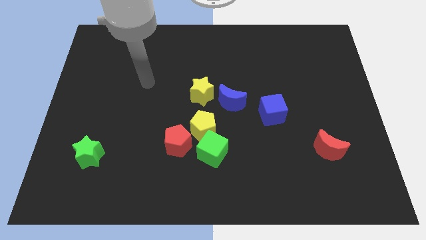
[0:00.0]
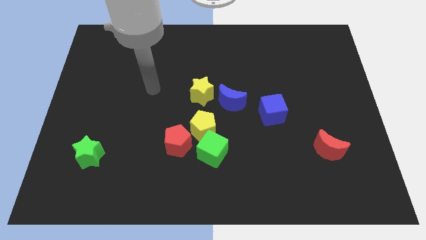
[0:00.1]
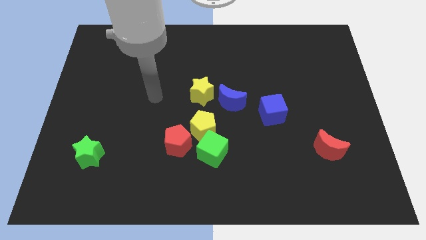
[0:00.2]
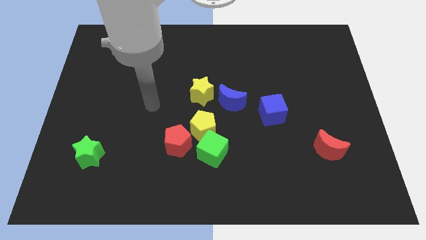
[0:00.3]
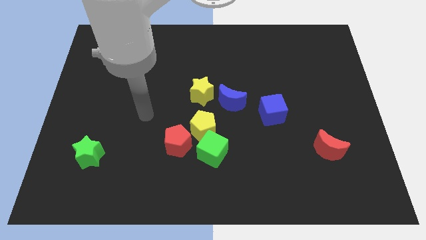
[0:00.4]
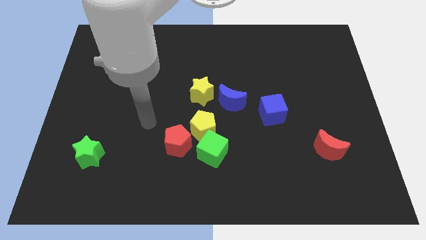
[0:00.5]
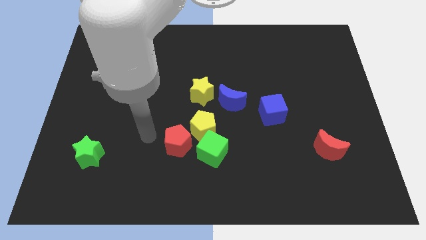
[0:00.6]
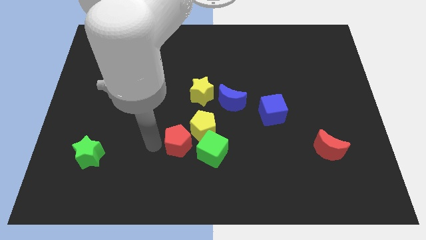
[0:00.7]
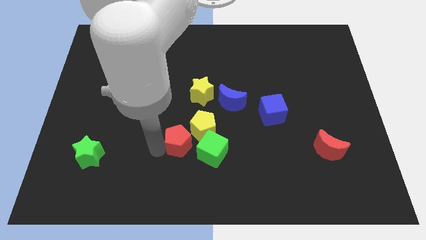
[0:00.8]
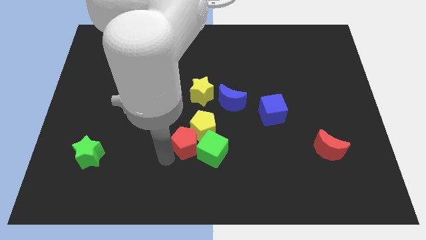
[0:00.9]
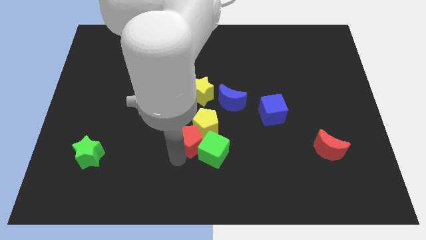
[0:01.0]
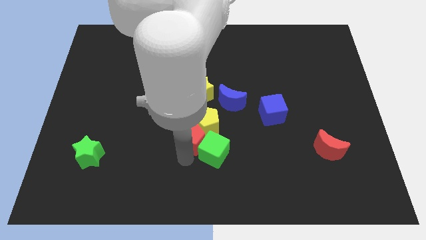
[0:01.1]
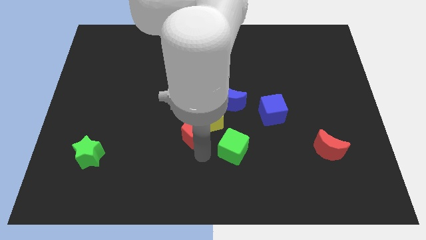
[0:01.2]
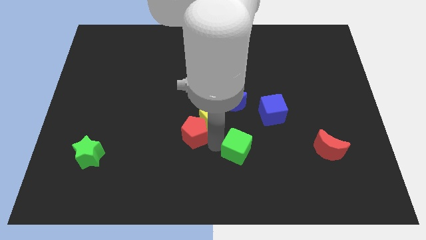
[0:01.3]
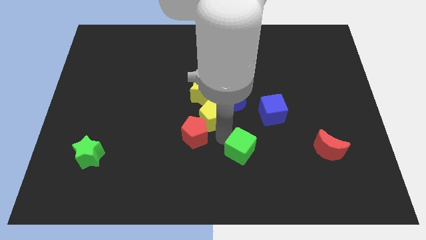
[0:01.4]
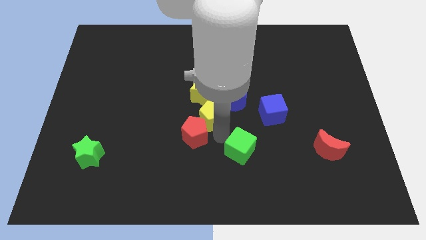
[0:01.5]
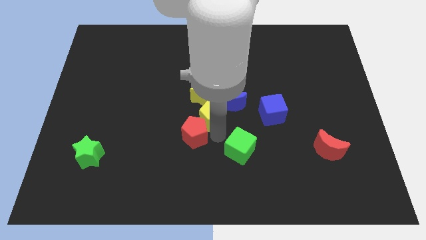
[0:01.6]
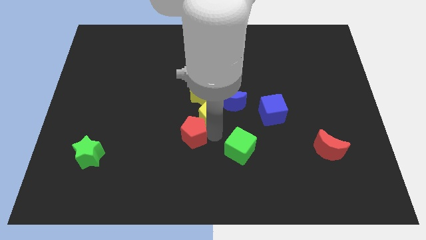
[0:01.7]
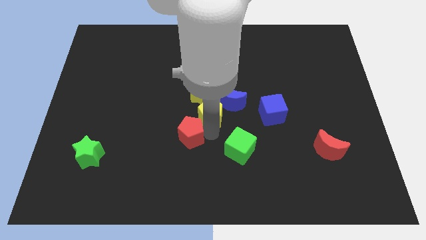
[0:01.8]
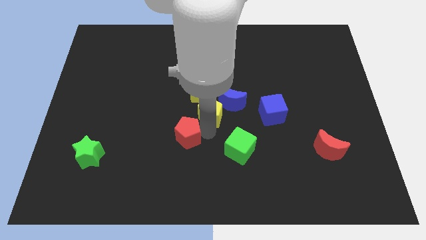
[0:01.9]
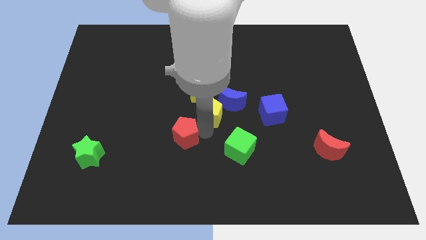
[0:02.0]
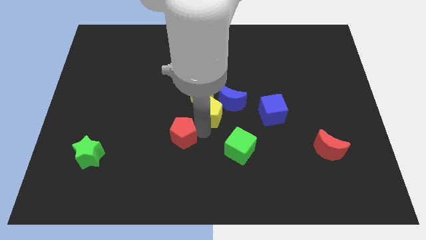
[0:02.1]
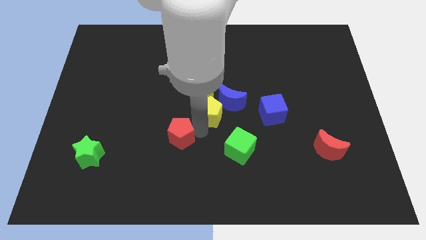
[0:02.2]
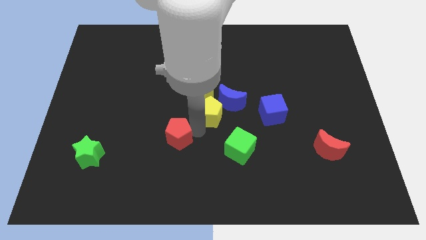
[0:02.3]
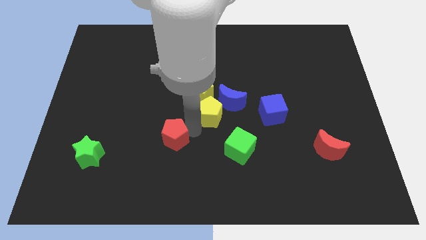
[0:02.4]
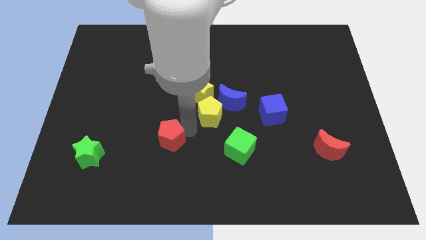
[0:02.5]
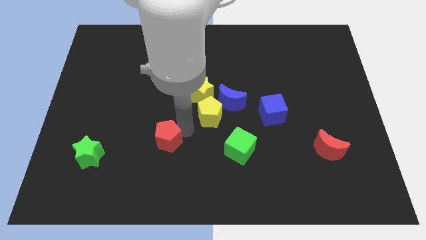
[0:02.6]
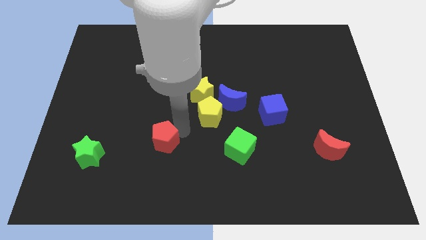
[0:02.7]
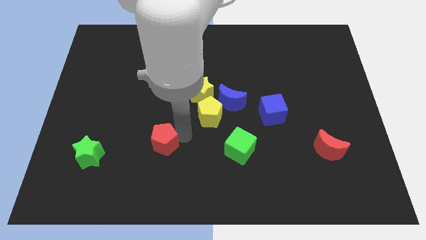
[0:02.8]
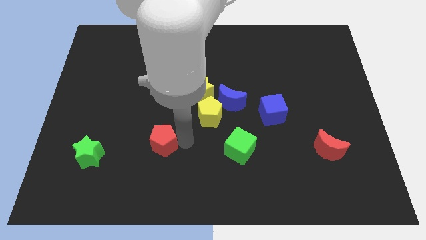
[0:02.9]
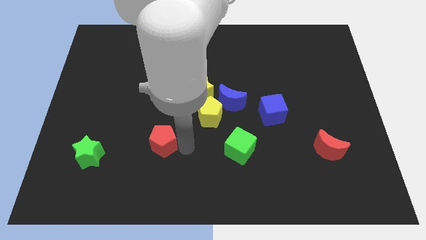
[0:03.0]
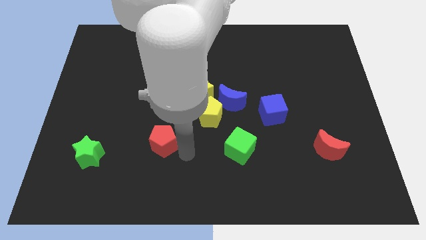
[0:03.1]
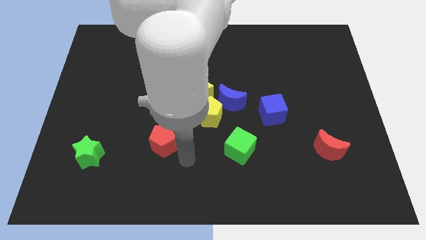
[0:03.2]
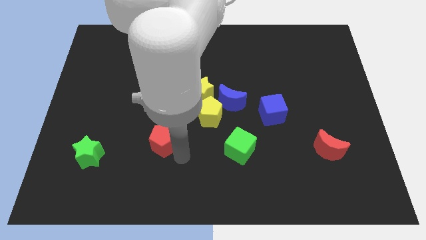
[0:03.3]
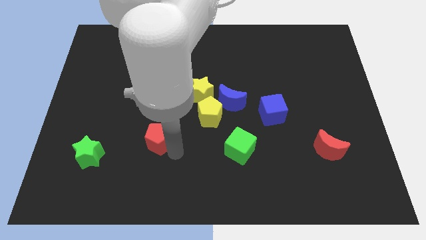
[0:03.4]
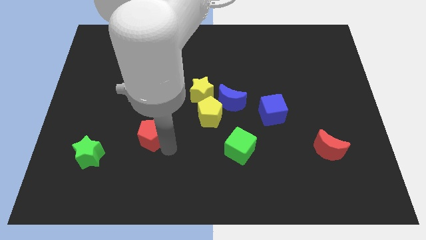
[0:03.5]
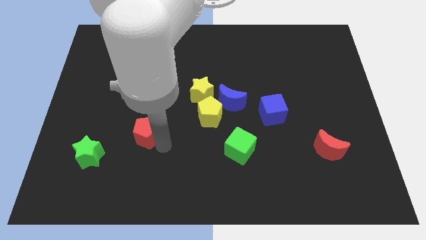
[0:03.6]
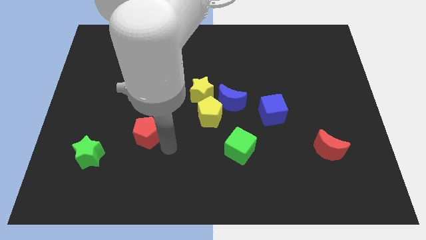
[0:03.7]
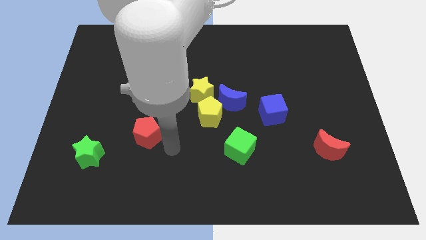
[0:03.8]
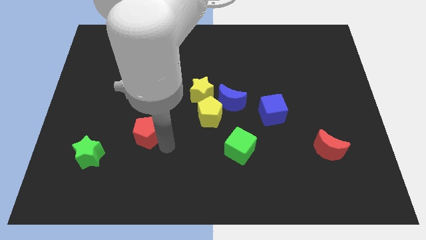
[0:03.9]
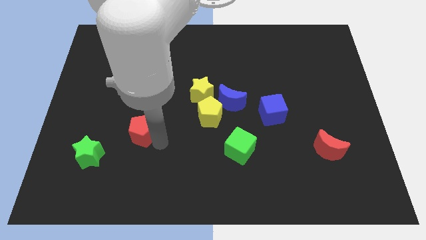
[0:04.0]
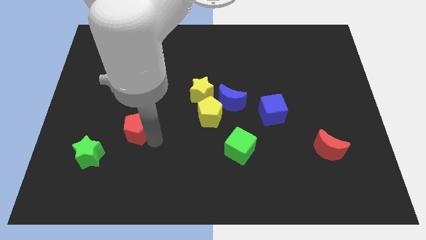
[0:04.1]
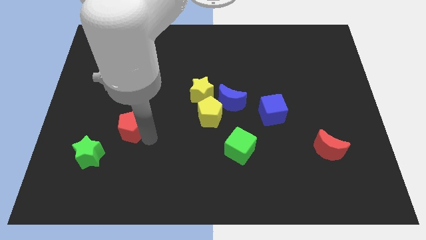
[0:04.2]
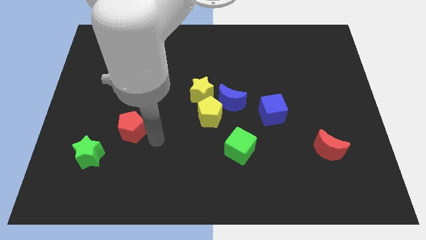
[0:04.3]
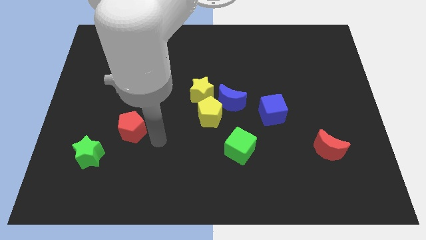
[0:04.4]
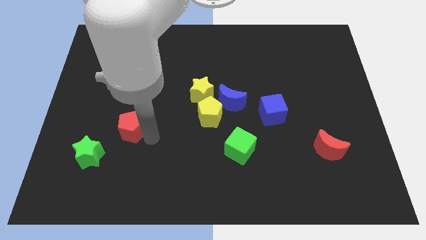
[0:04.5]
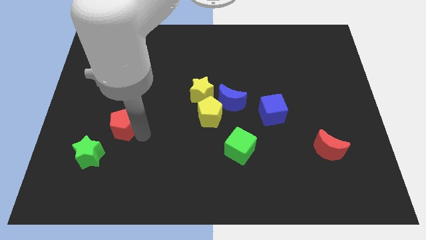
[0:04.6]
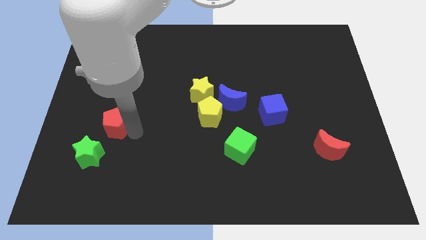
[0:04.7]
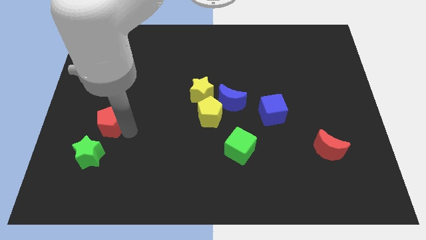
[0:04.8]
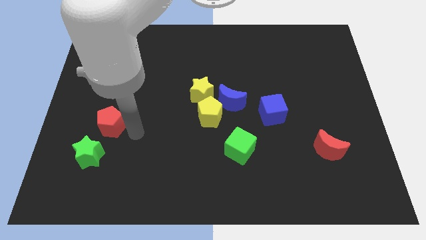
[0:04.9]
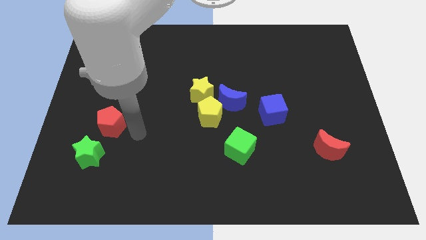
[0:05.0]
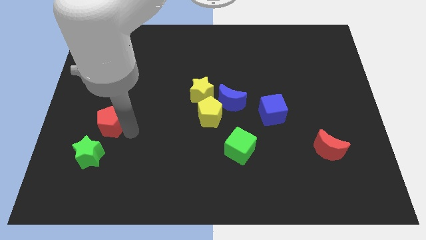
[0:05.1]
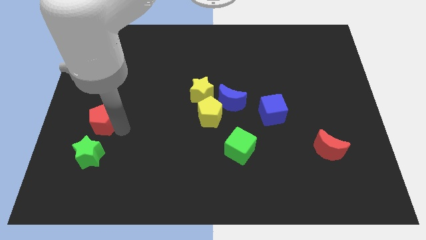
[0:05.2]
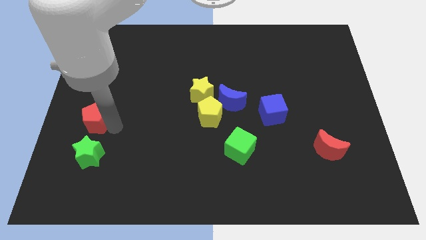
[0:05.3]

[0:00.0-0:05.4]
push the red pentagon to the left side of the board

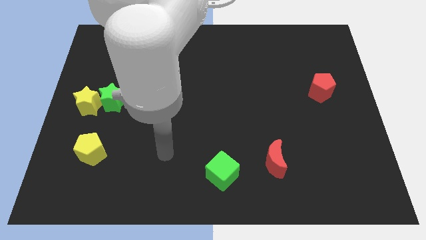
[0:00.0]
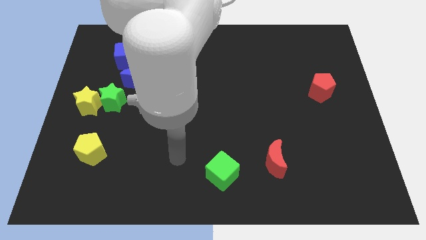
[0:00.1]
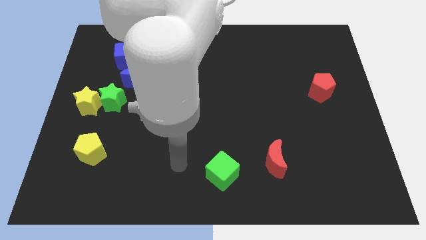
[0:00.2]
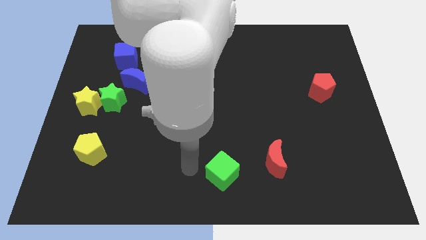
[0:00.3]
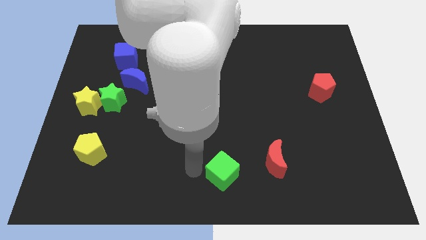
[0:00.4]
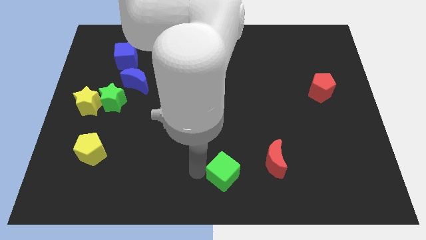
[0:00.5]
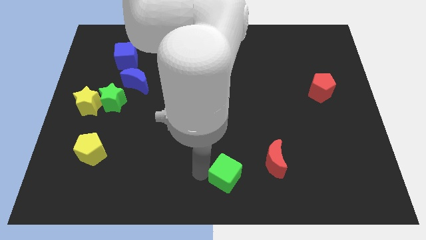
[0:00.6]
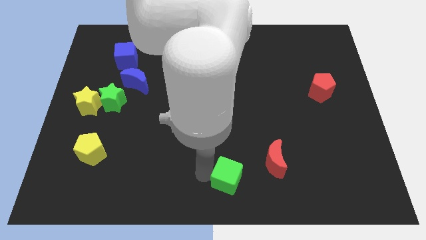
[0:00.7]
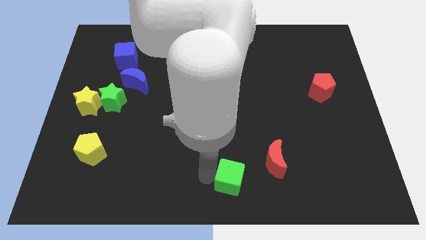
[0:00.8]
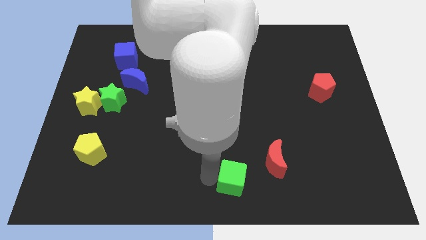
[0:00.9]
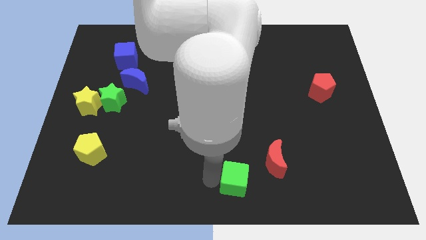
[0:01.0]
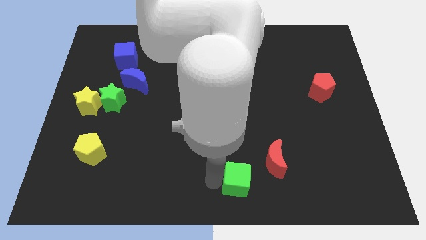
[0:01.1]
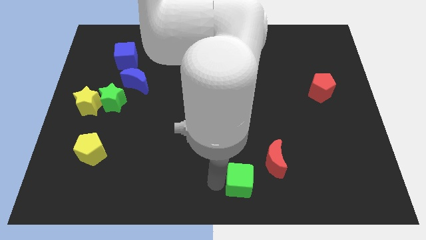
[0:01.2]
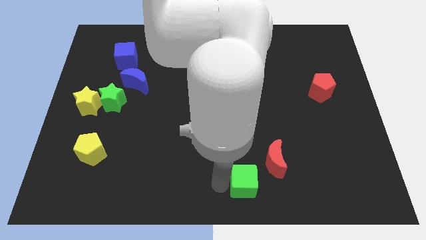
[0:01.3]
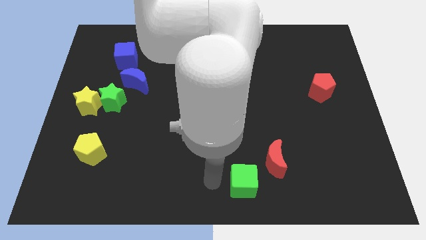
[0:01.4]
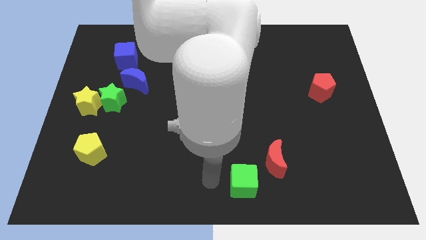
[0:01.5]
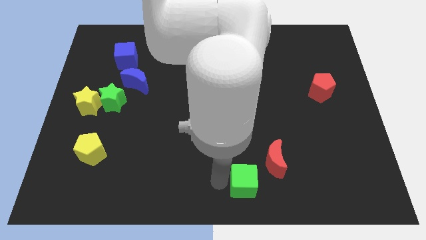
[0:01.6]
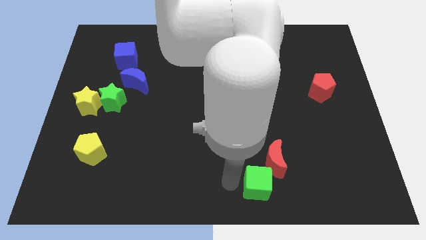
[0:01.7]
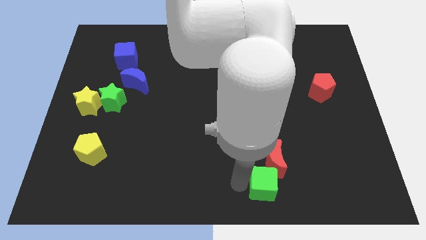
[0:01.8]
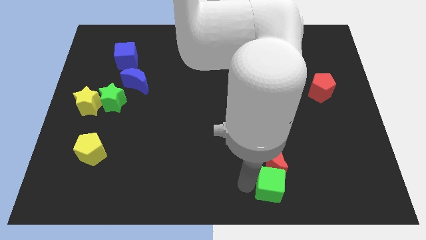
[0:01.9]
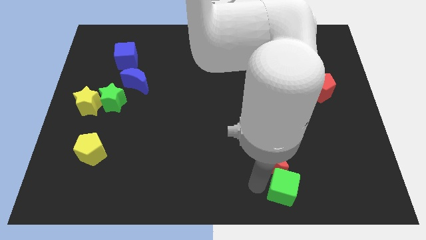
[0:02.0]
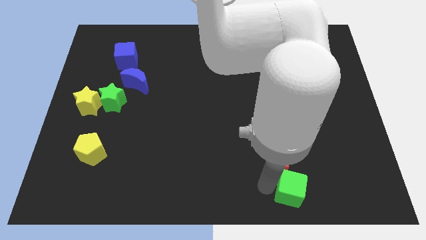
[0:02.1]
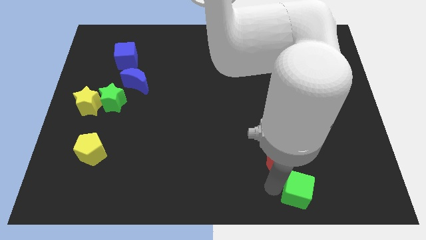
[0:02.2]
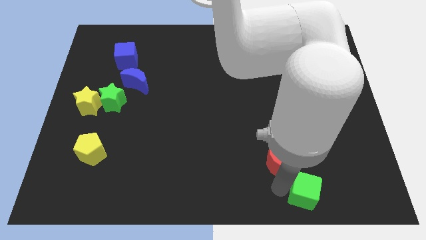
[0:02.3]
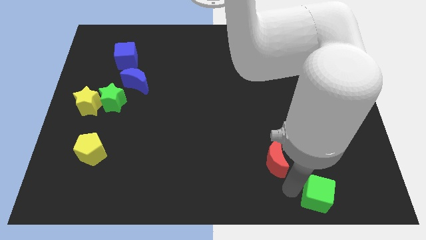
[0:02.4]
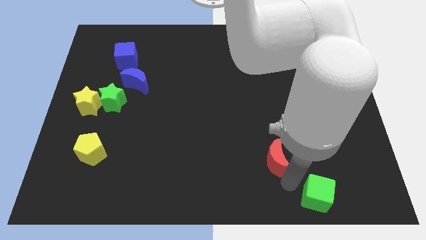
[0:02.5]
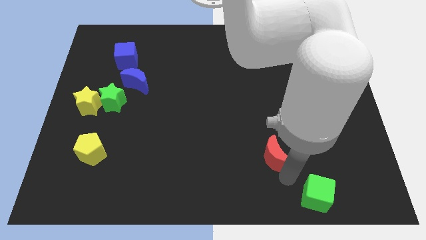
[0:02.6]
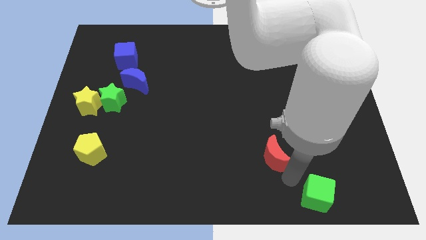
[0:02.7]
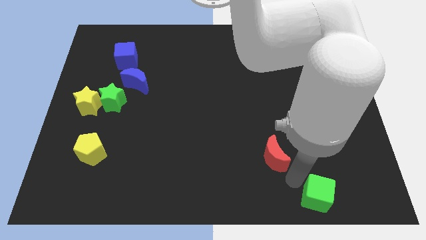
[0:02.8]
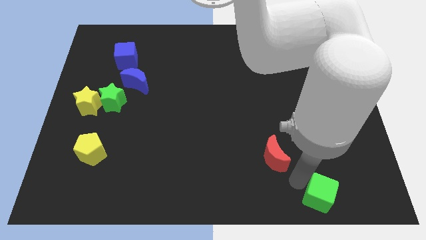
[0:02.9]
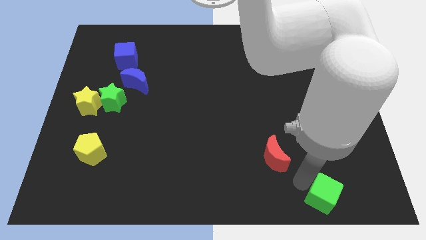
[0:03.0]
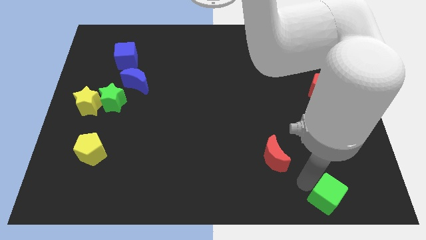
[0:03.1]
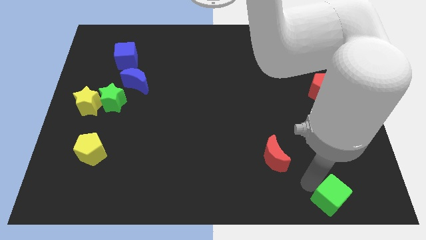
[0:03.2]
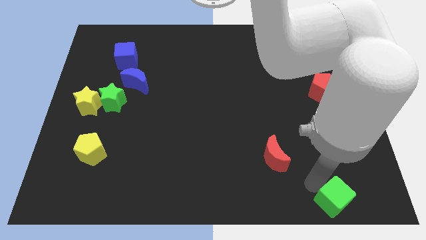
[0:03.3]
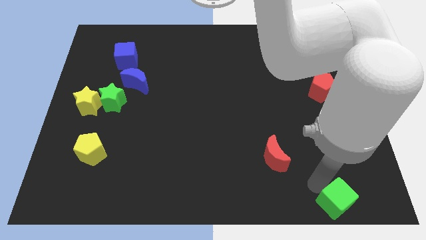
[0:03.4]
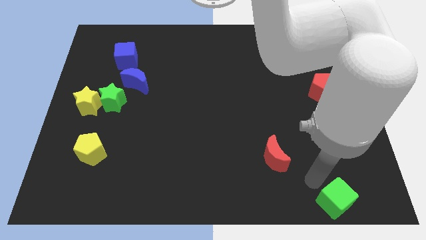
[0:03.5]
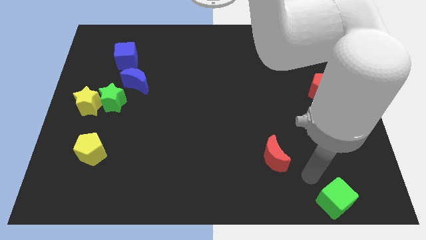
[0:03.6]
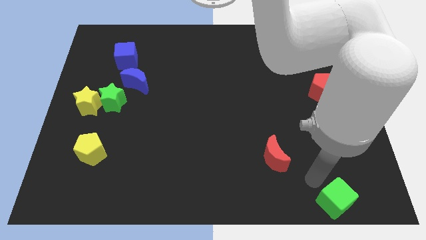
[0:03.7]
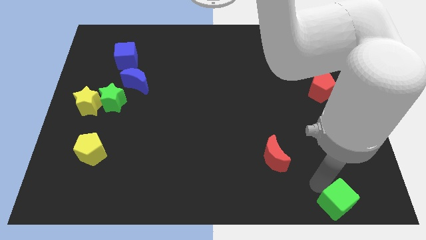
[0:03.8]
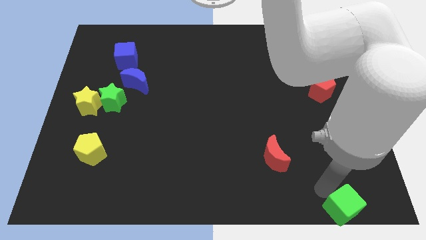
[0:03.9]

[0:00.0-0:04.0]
push the green cube to the lower right corner
